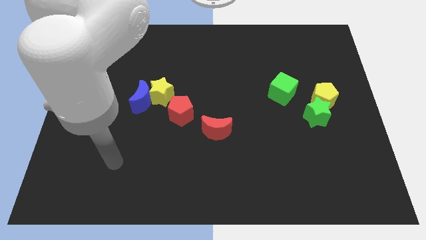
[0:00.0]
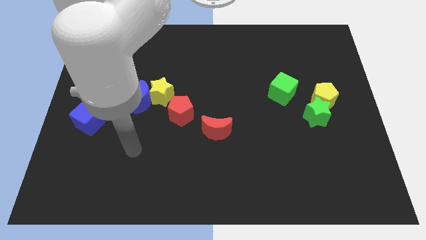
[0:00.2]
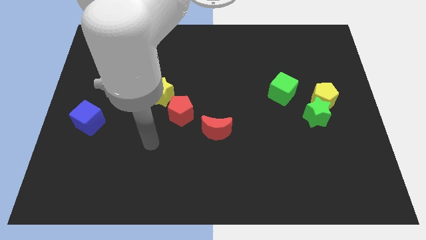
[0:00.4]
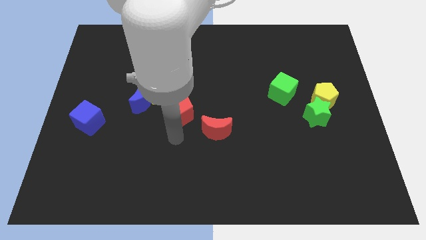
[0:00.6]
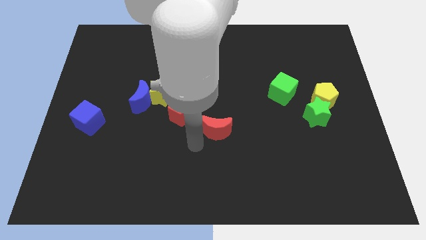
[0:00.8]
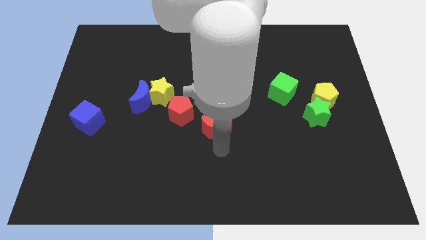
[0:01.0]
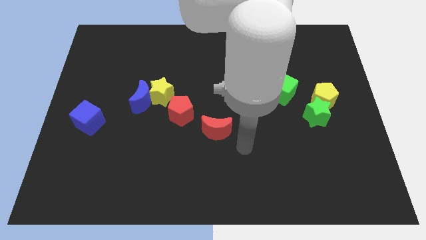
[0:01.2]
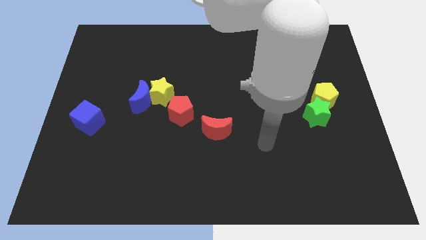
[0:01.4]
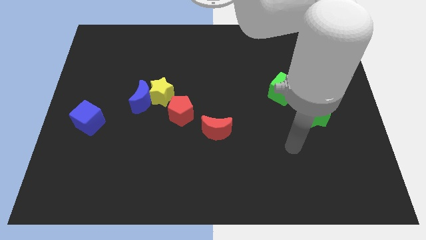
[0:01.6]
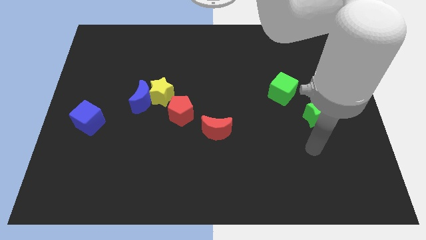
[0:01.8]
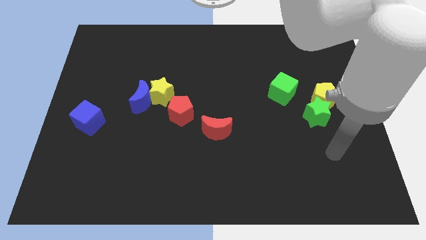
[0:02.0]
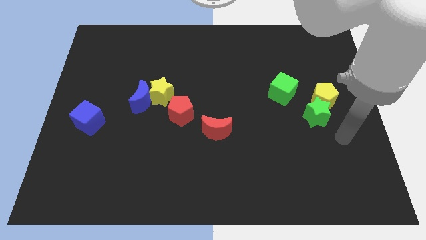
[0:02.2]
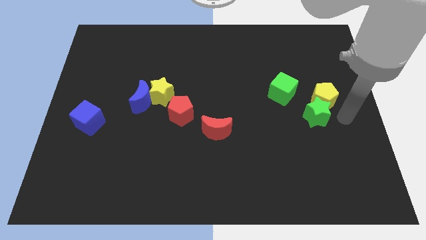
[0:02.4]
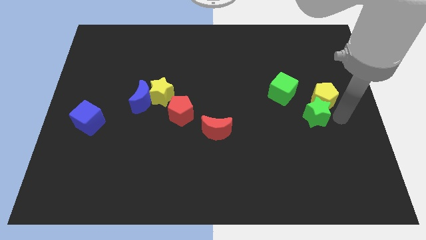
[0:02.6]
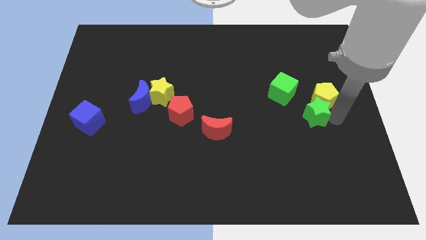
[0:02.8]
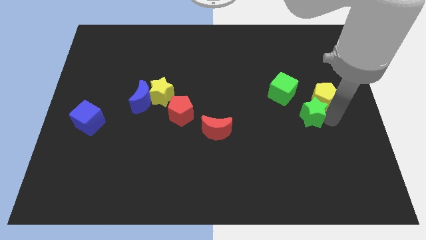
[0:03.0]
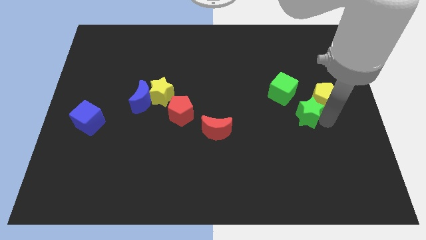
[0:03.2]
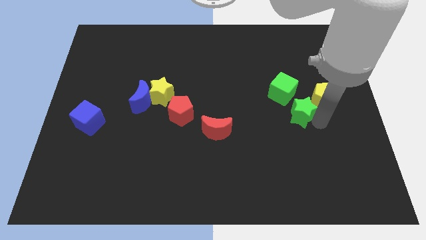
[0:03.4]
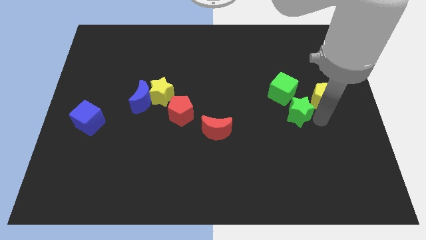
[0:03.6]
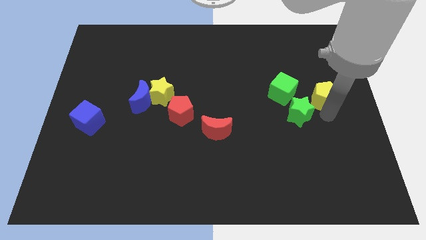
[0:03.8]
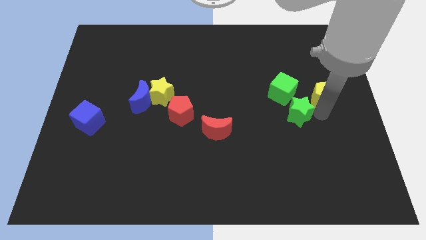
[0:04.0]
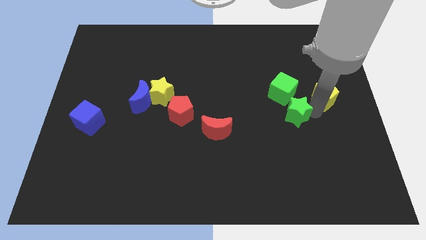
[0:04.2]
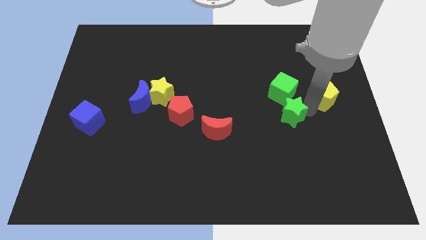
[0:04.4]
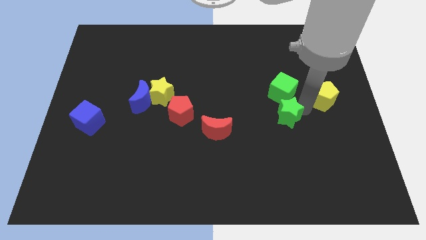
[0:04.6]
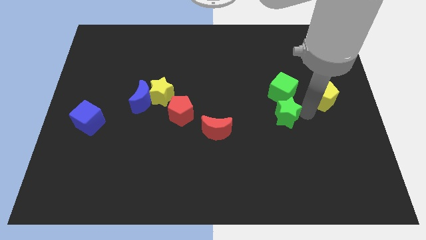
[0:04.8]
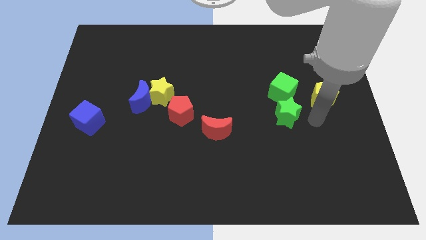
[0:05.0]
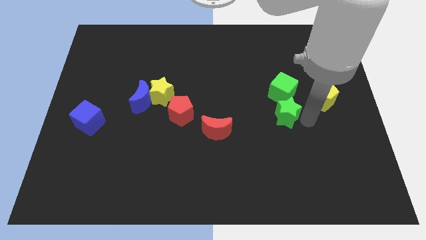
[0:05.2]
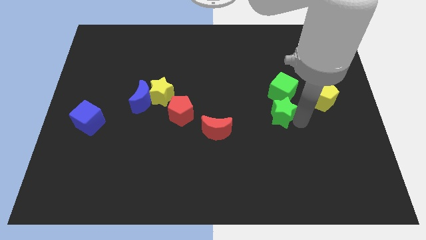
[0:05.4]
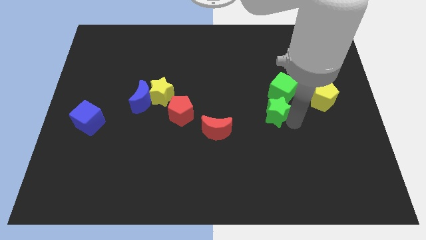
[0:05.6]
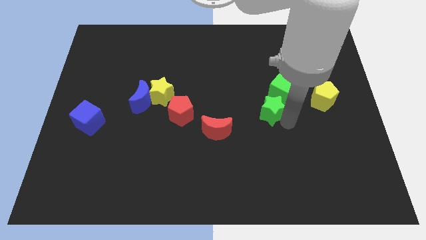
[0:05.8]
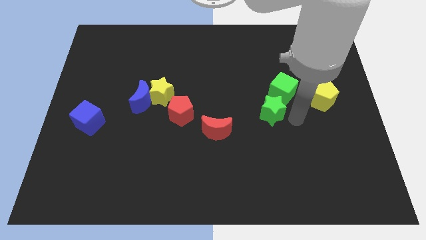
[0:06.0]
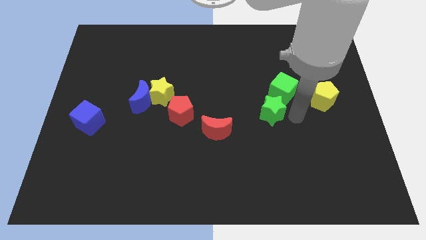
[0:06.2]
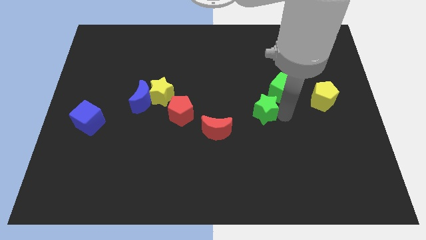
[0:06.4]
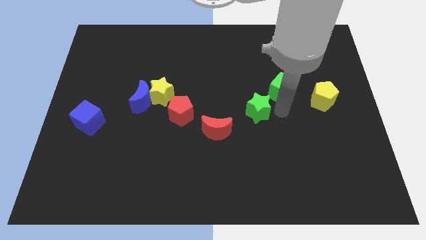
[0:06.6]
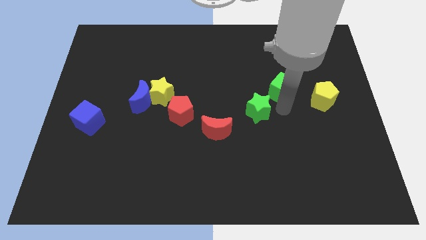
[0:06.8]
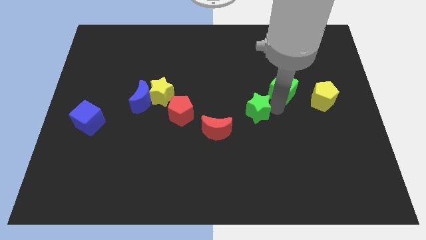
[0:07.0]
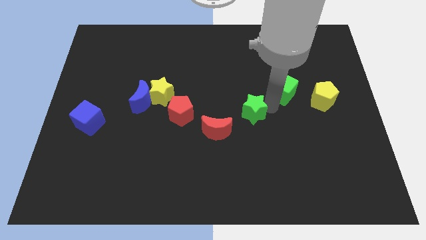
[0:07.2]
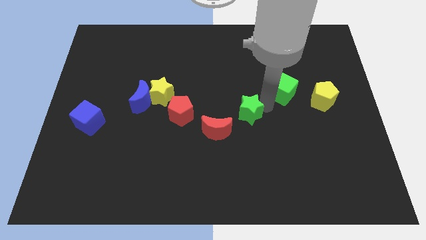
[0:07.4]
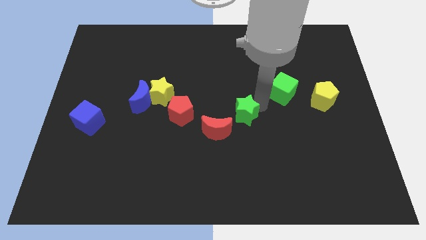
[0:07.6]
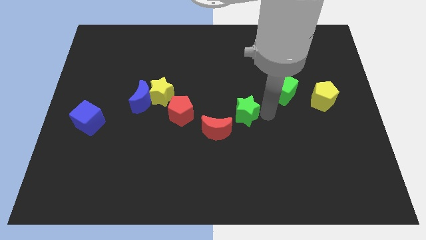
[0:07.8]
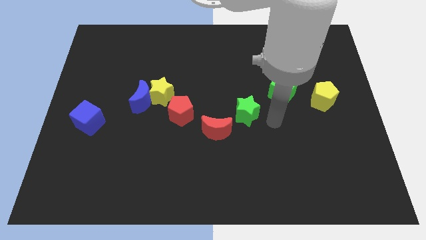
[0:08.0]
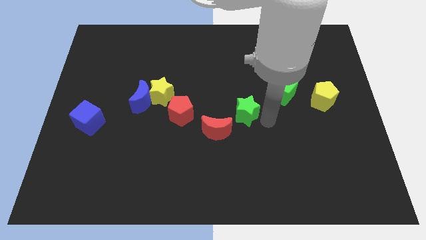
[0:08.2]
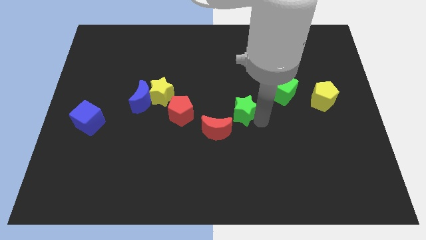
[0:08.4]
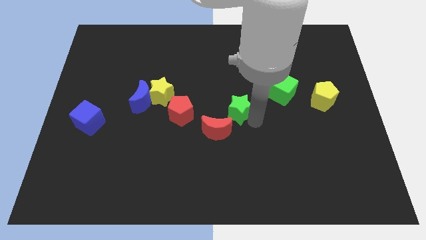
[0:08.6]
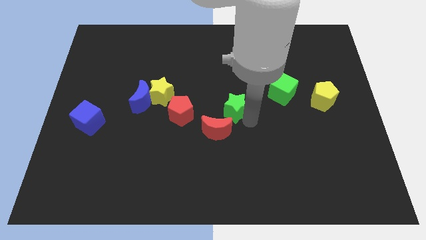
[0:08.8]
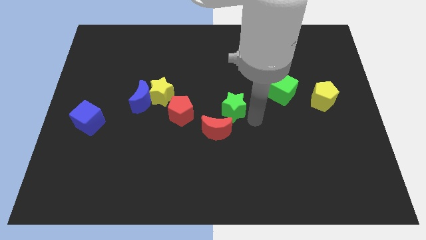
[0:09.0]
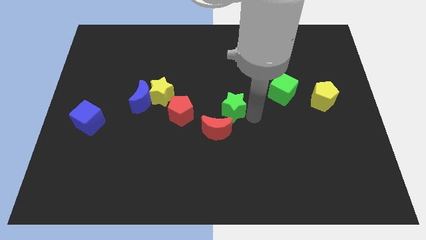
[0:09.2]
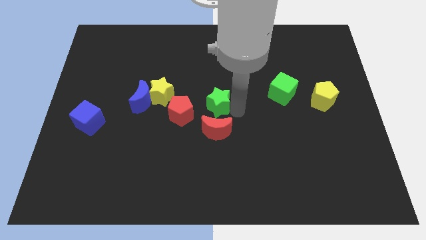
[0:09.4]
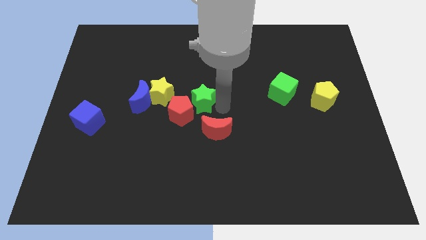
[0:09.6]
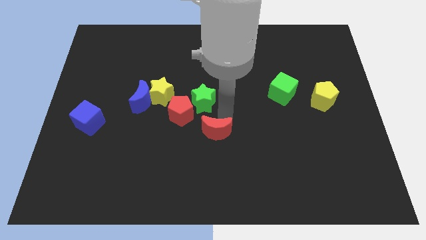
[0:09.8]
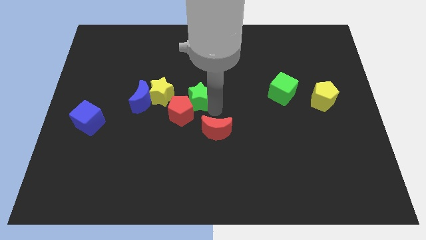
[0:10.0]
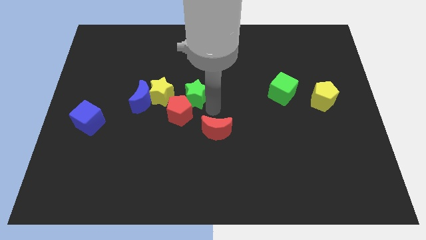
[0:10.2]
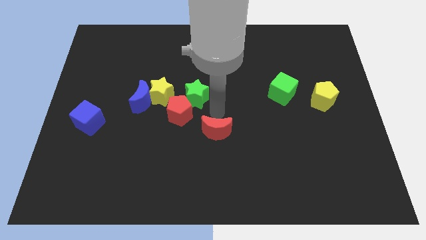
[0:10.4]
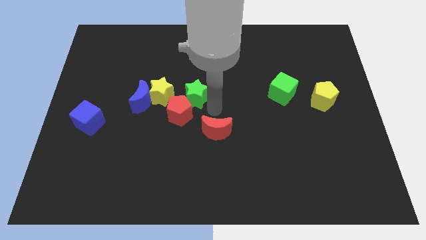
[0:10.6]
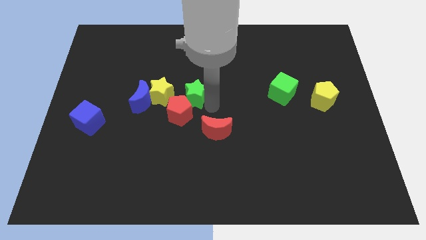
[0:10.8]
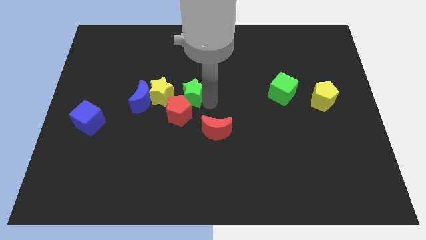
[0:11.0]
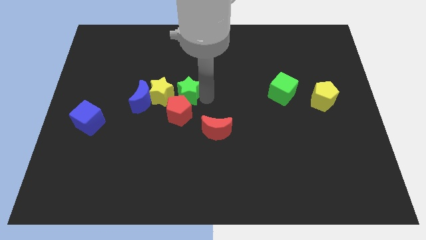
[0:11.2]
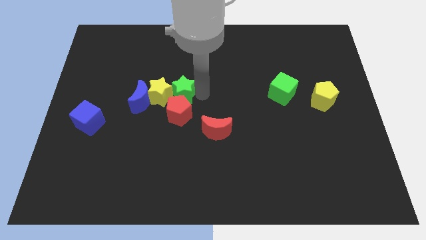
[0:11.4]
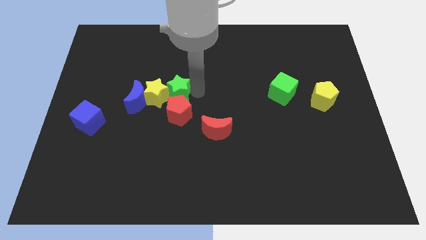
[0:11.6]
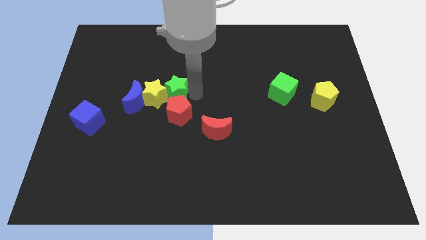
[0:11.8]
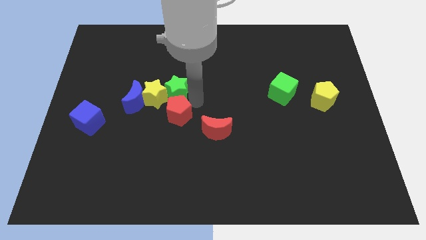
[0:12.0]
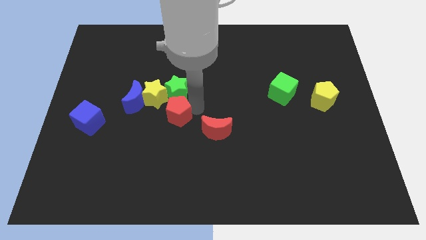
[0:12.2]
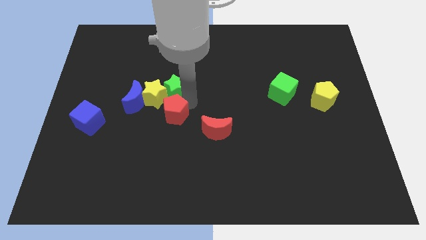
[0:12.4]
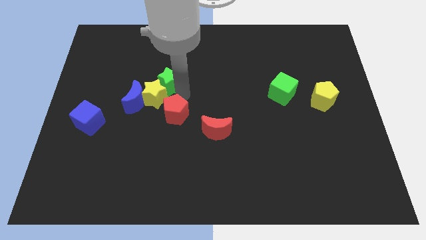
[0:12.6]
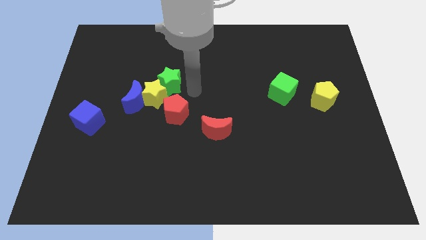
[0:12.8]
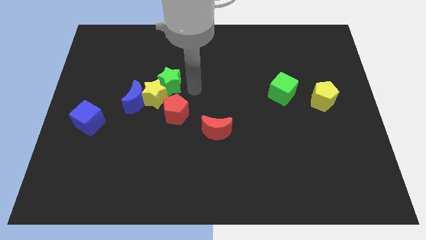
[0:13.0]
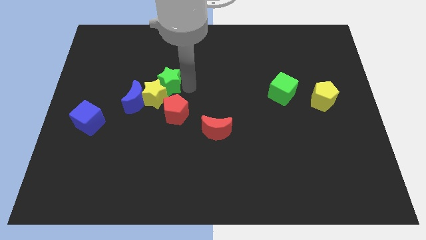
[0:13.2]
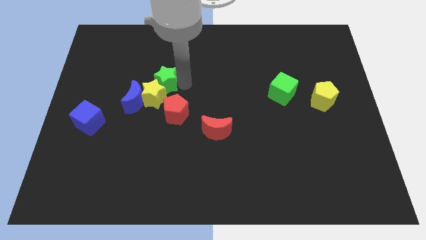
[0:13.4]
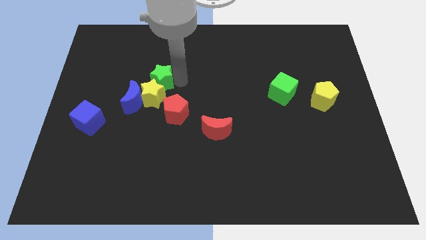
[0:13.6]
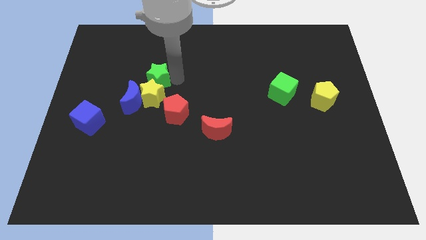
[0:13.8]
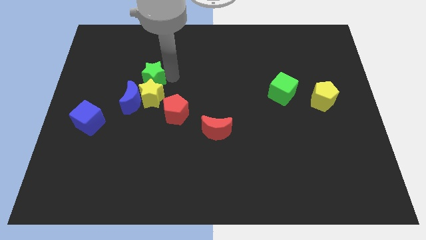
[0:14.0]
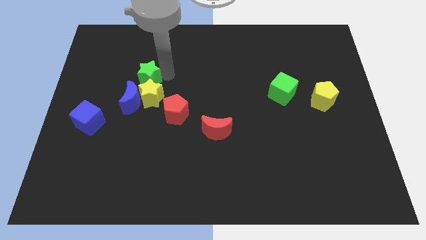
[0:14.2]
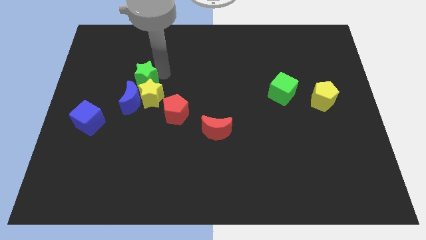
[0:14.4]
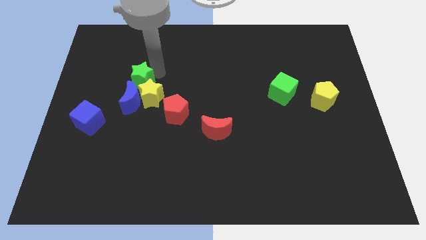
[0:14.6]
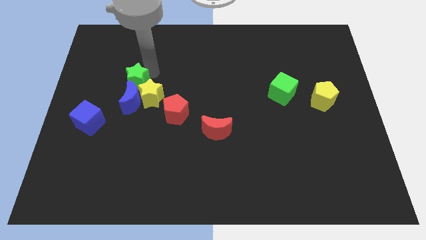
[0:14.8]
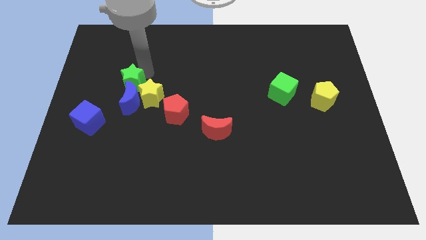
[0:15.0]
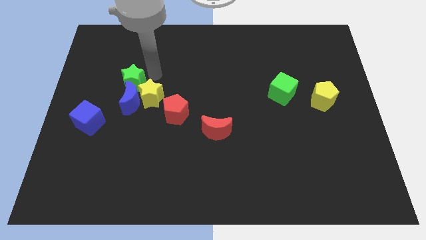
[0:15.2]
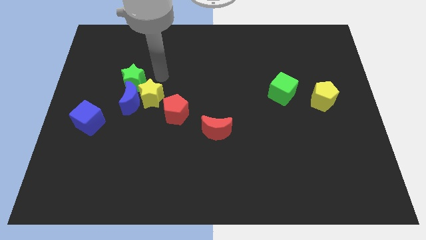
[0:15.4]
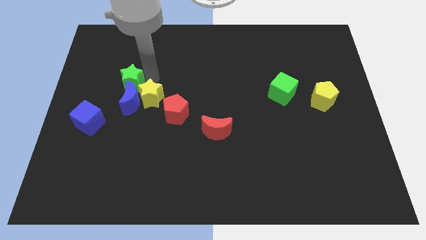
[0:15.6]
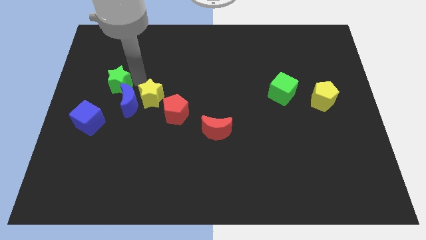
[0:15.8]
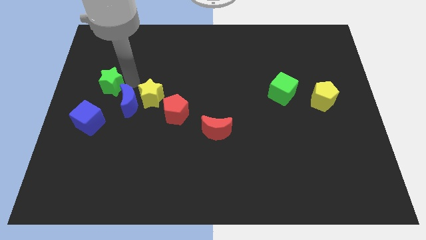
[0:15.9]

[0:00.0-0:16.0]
push the green star to the top of the blue cube
